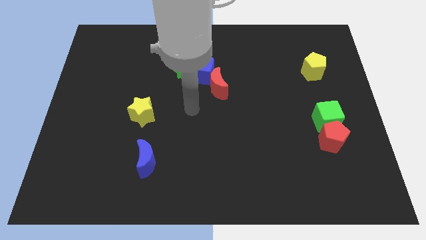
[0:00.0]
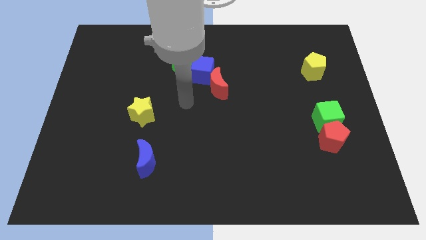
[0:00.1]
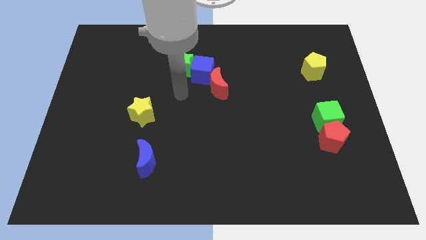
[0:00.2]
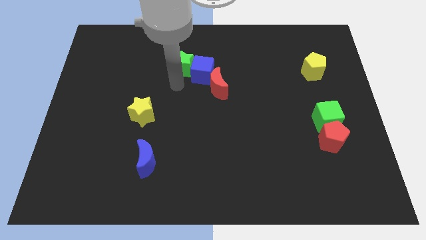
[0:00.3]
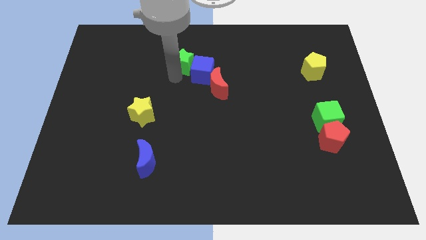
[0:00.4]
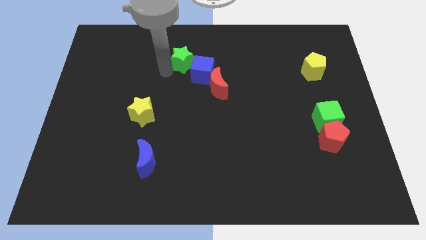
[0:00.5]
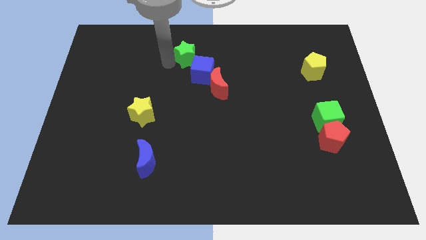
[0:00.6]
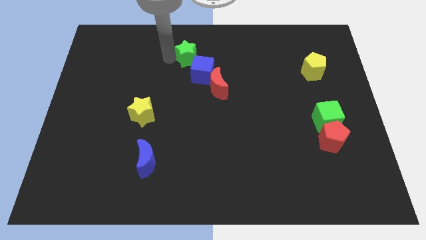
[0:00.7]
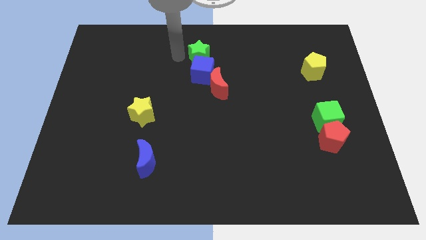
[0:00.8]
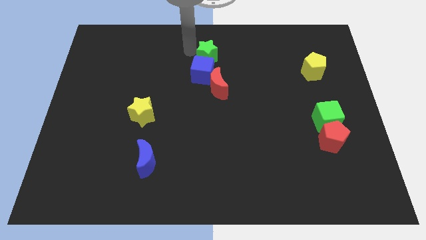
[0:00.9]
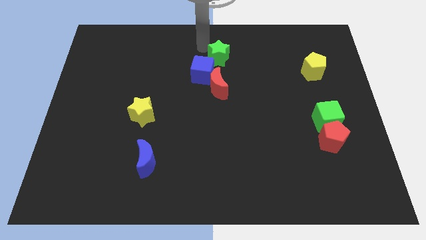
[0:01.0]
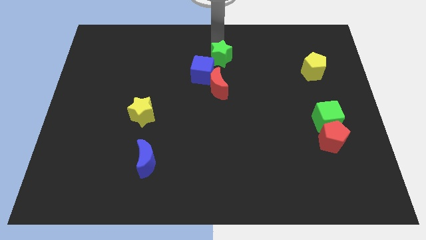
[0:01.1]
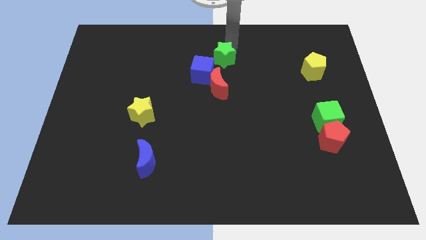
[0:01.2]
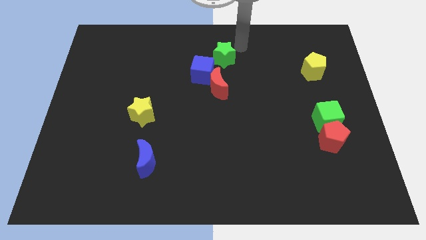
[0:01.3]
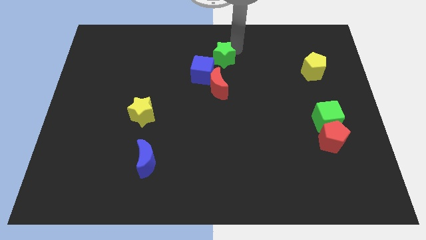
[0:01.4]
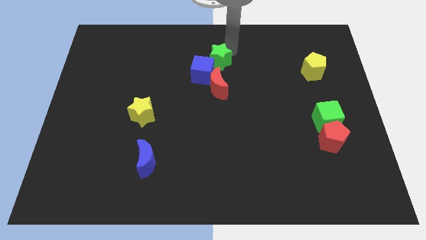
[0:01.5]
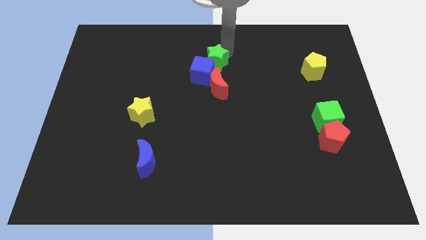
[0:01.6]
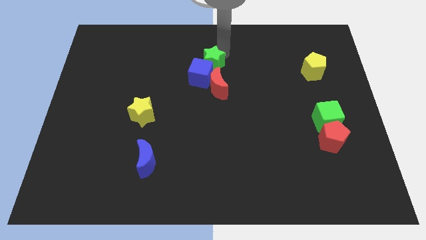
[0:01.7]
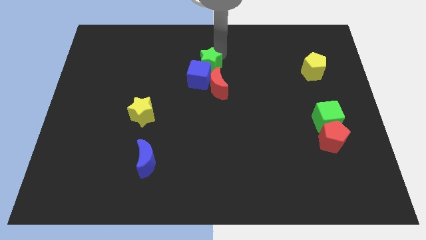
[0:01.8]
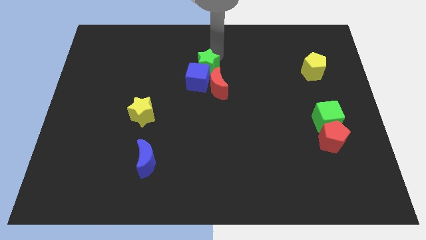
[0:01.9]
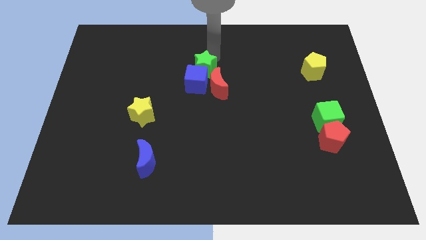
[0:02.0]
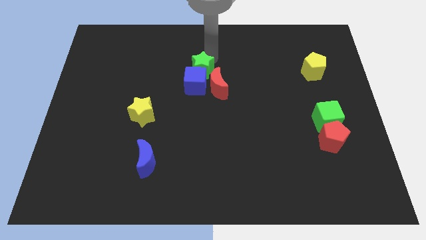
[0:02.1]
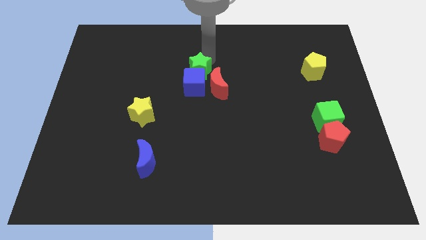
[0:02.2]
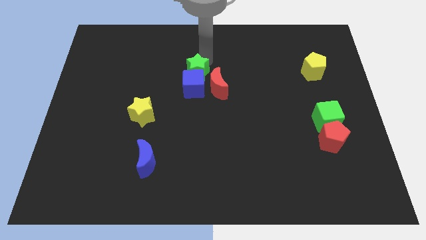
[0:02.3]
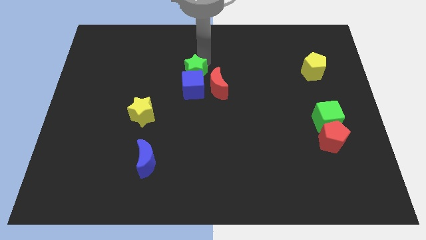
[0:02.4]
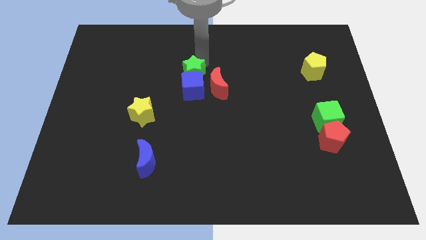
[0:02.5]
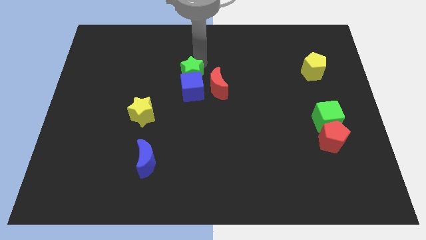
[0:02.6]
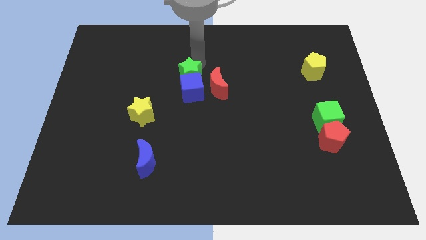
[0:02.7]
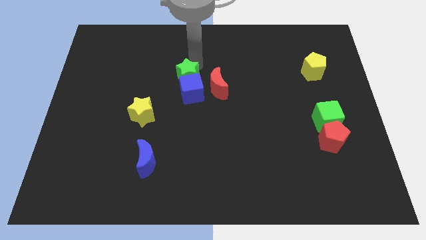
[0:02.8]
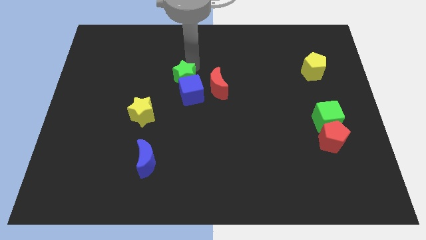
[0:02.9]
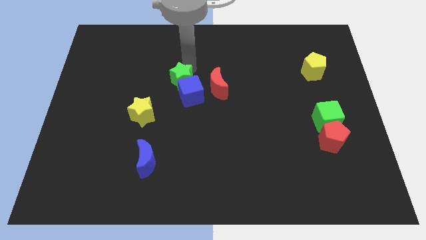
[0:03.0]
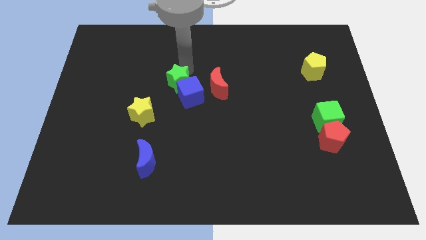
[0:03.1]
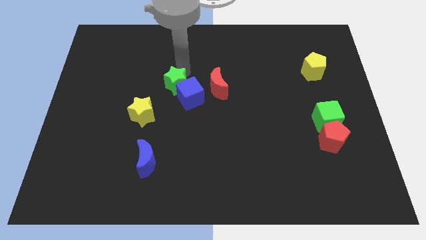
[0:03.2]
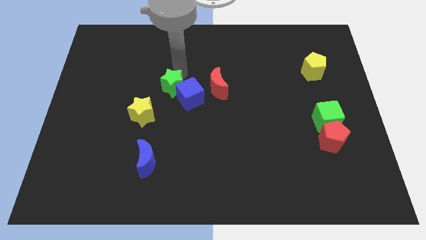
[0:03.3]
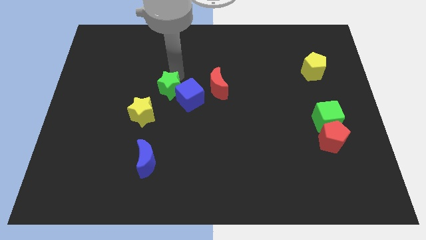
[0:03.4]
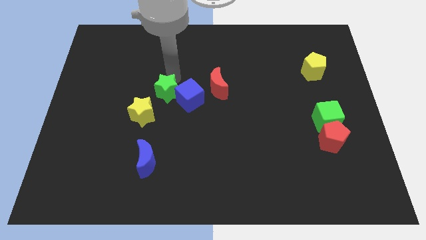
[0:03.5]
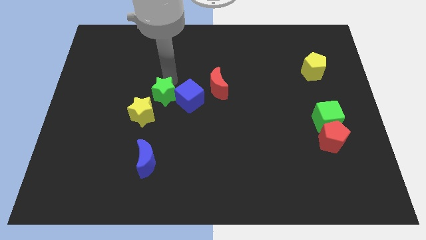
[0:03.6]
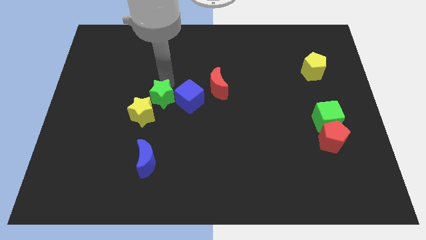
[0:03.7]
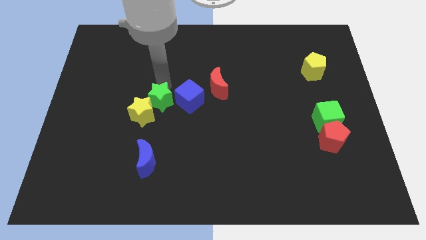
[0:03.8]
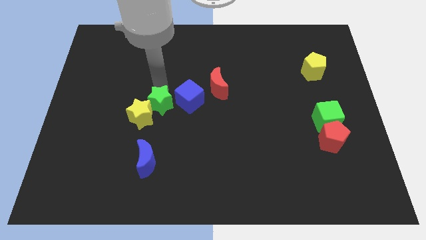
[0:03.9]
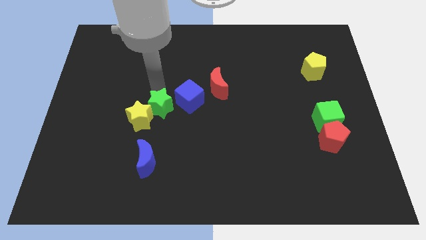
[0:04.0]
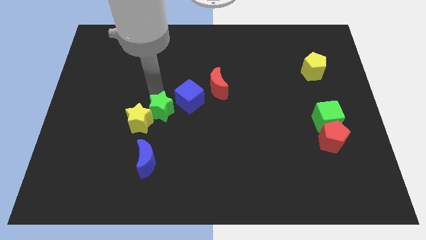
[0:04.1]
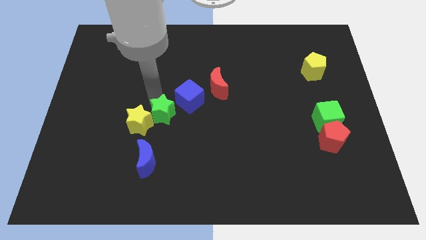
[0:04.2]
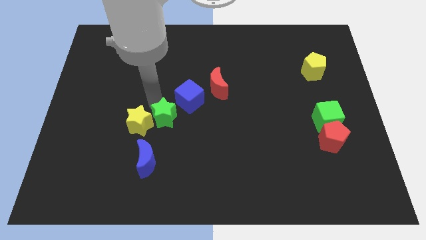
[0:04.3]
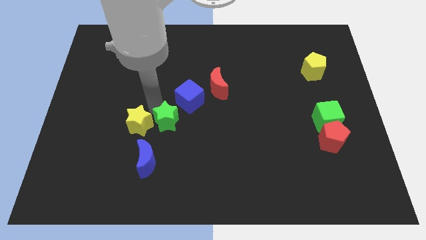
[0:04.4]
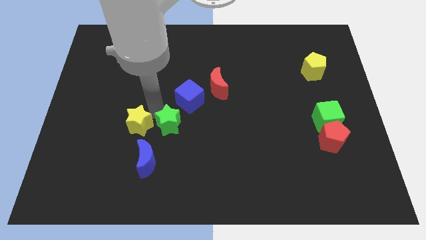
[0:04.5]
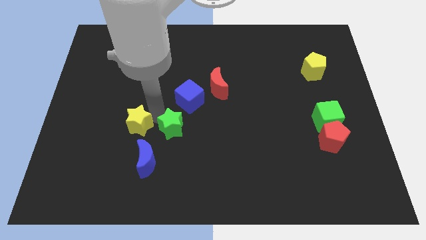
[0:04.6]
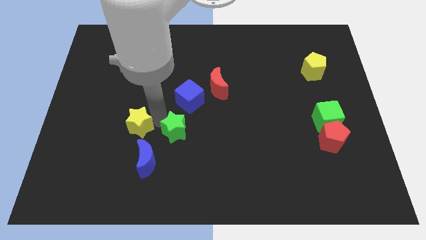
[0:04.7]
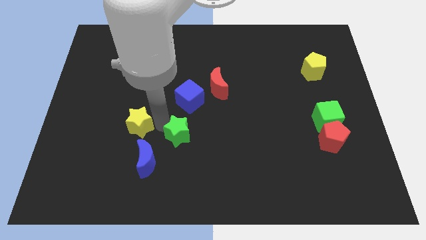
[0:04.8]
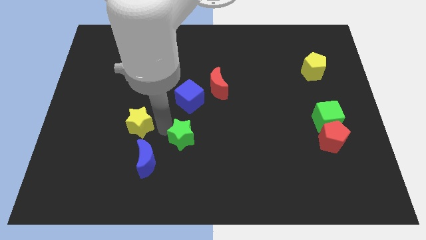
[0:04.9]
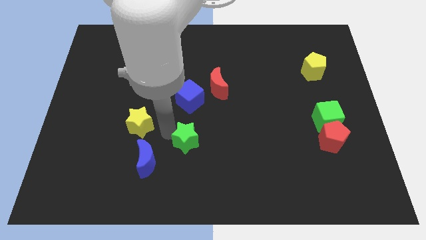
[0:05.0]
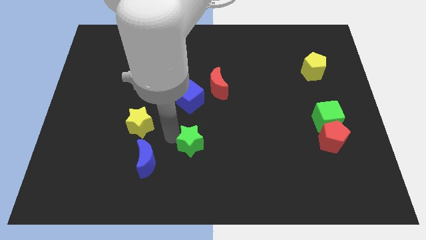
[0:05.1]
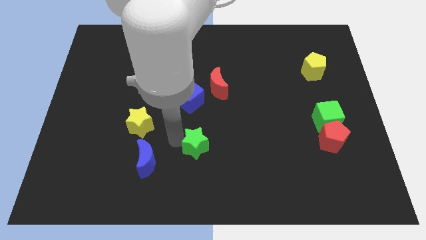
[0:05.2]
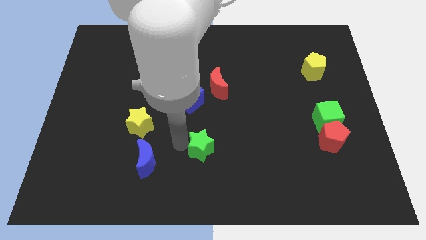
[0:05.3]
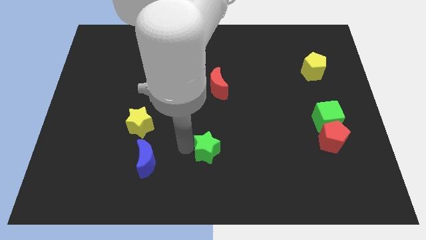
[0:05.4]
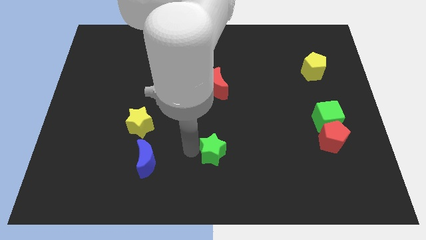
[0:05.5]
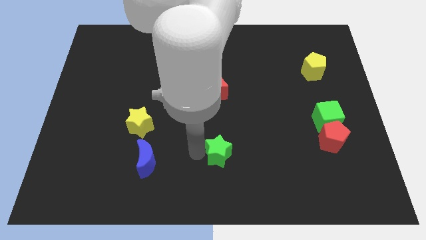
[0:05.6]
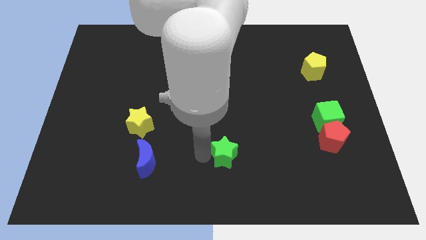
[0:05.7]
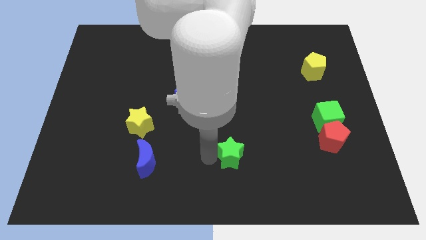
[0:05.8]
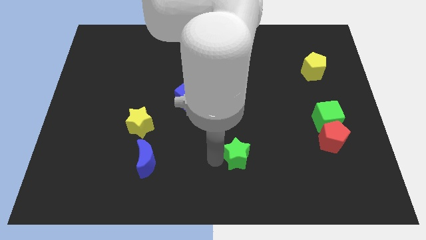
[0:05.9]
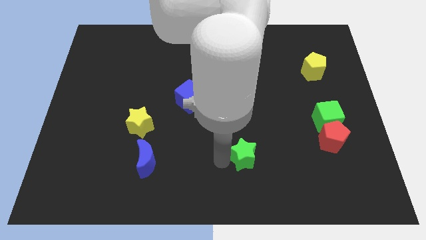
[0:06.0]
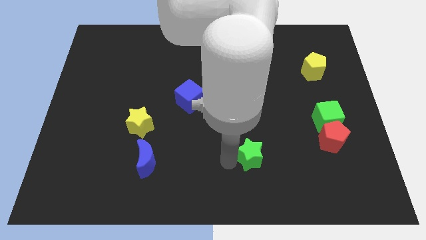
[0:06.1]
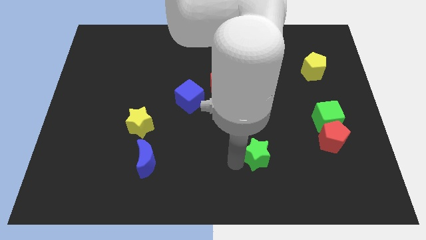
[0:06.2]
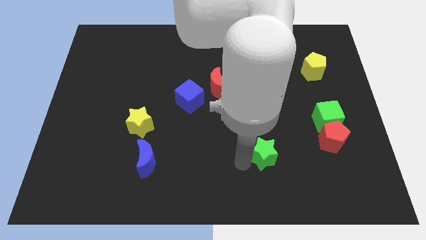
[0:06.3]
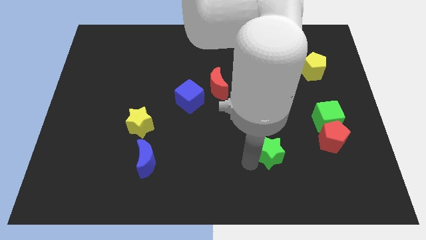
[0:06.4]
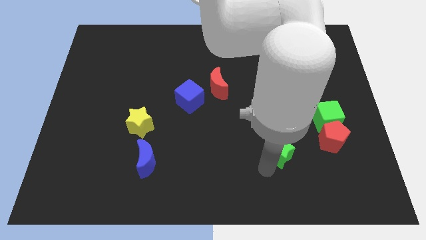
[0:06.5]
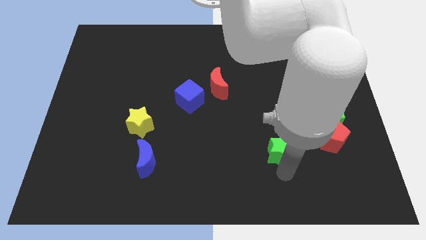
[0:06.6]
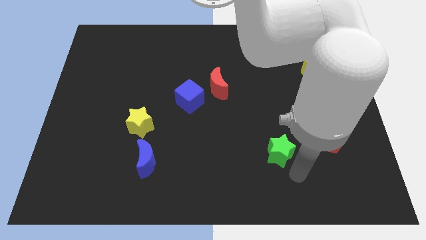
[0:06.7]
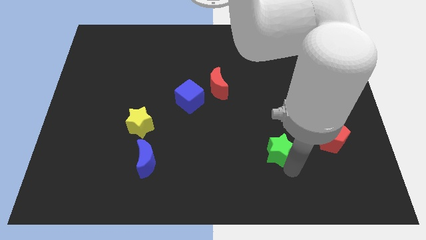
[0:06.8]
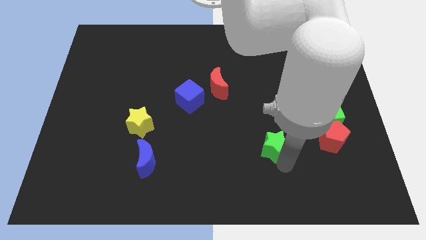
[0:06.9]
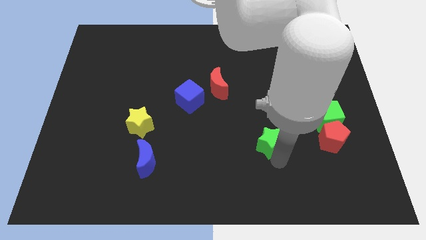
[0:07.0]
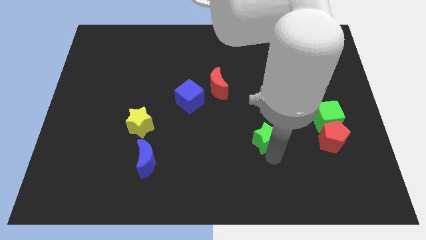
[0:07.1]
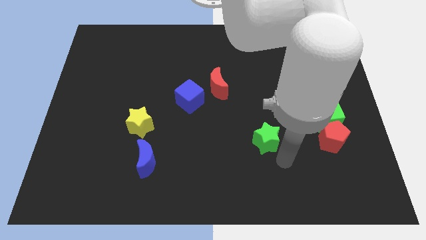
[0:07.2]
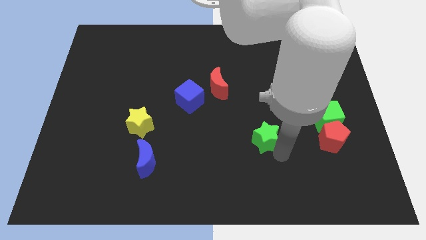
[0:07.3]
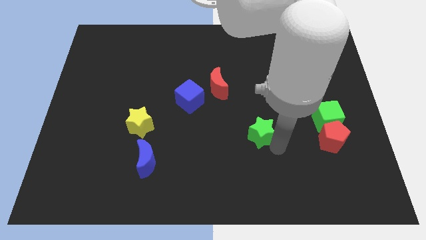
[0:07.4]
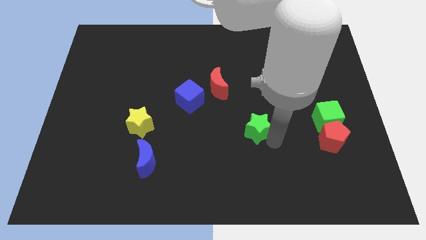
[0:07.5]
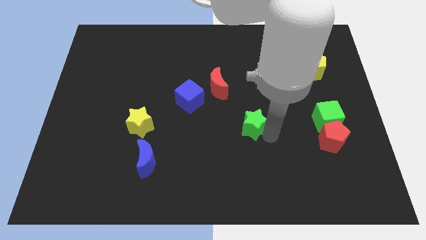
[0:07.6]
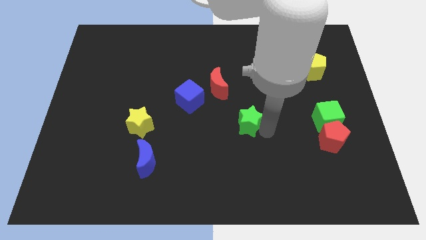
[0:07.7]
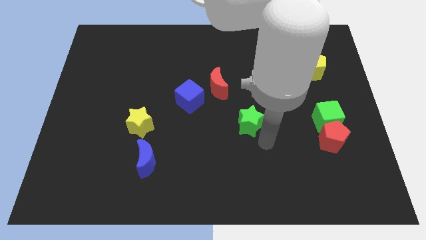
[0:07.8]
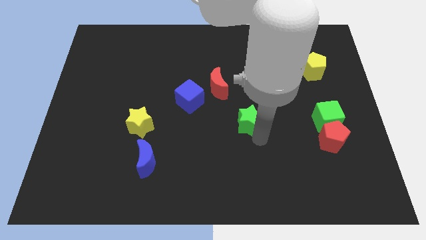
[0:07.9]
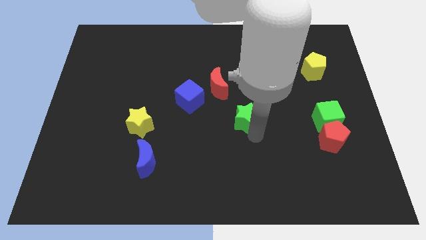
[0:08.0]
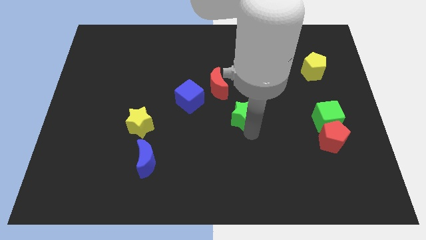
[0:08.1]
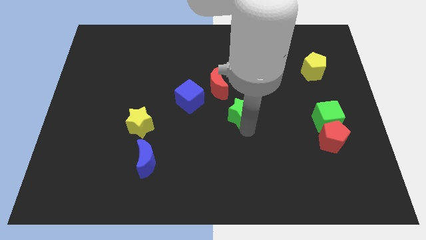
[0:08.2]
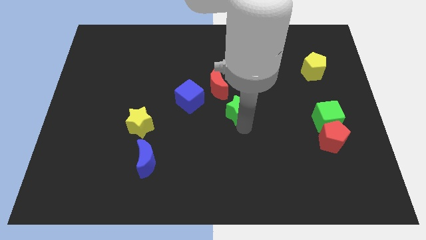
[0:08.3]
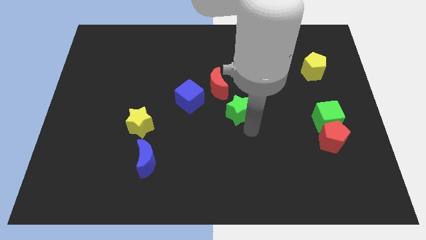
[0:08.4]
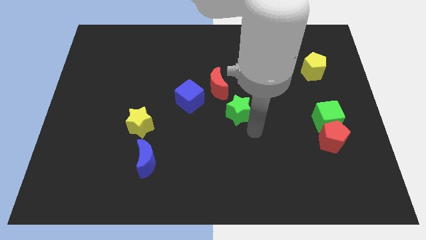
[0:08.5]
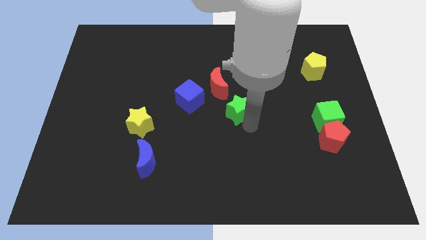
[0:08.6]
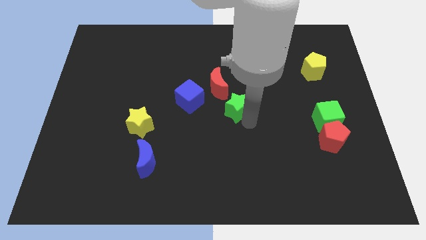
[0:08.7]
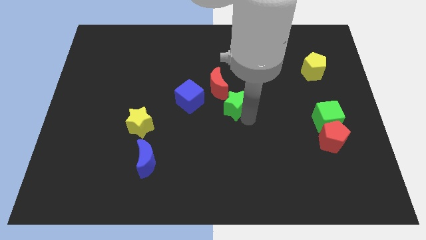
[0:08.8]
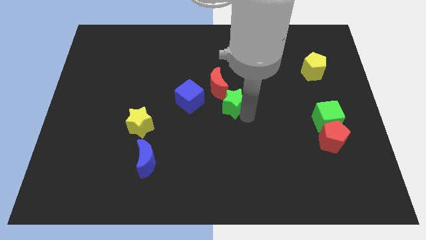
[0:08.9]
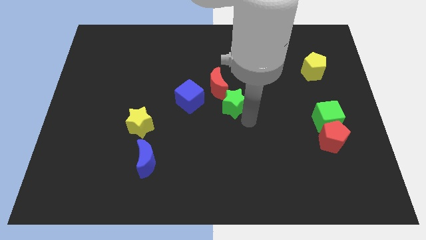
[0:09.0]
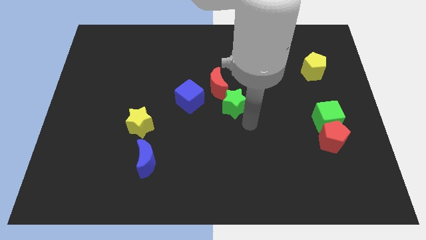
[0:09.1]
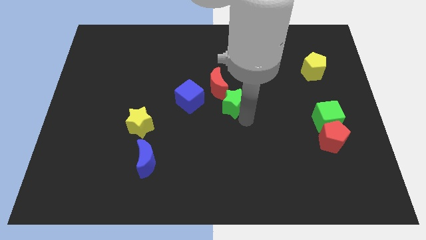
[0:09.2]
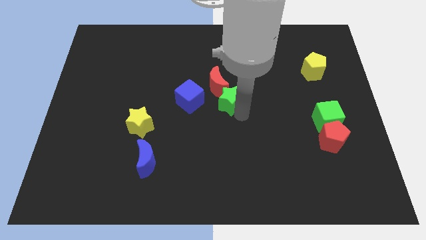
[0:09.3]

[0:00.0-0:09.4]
put the green star close to the red moon
